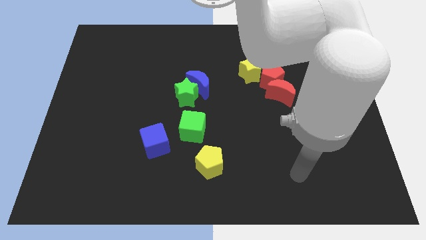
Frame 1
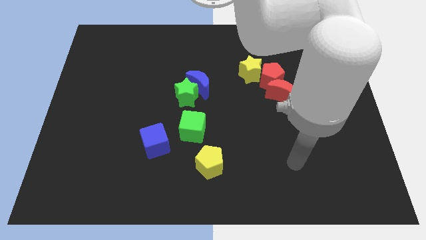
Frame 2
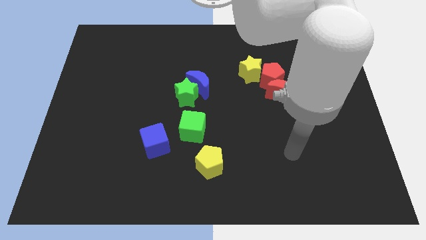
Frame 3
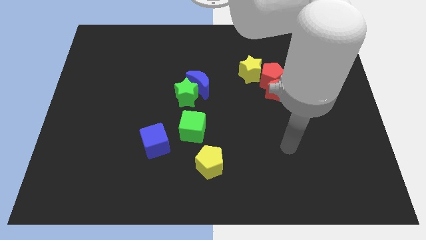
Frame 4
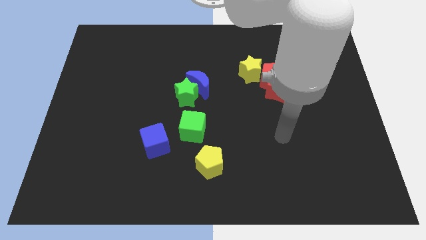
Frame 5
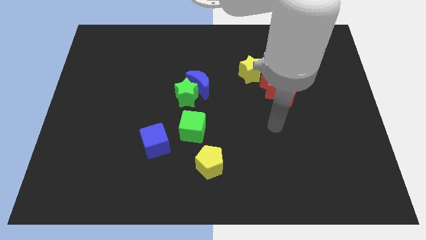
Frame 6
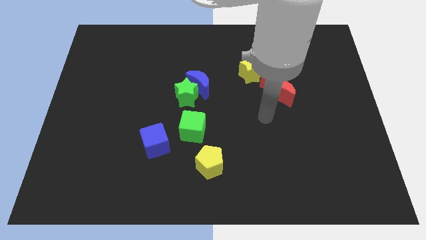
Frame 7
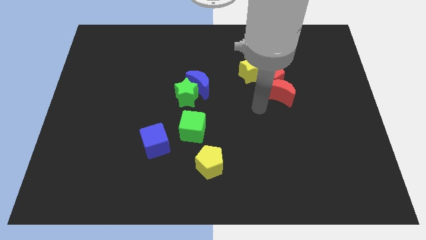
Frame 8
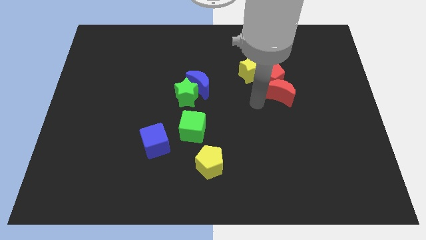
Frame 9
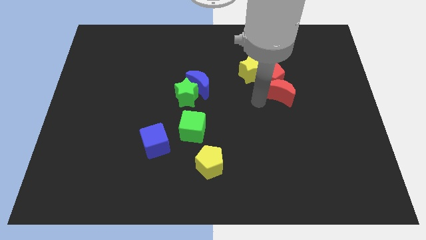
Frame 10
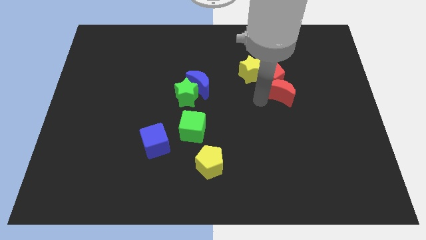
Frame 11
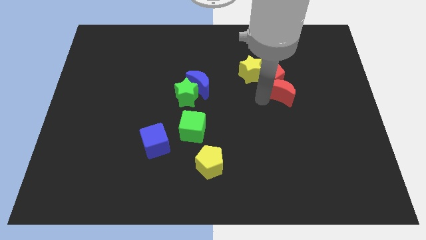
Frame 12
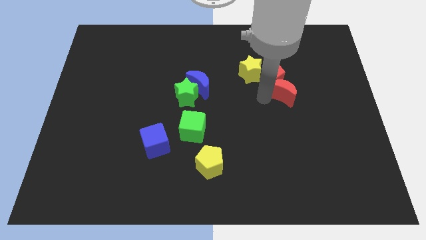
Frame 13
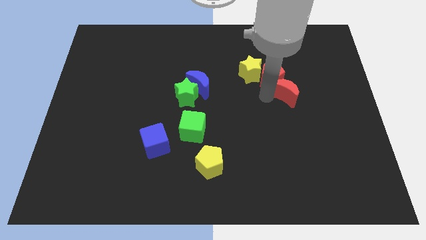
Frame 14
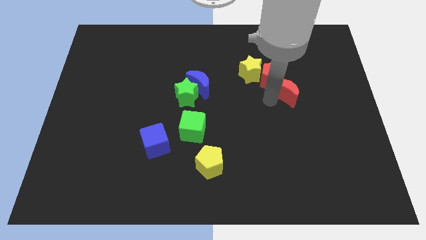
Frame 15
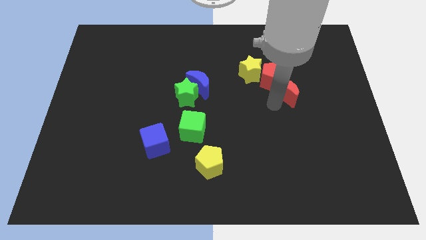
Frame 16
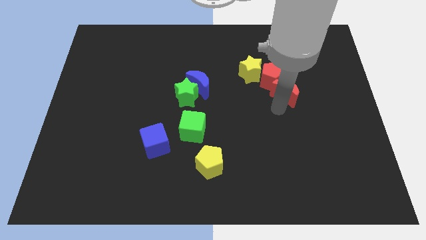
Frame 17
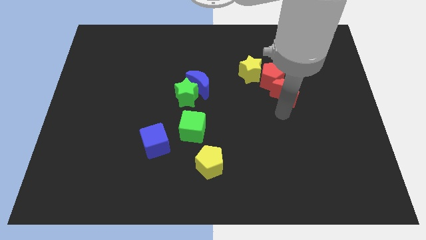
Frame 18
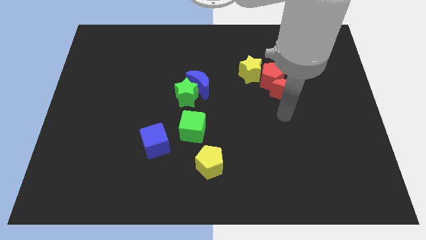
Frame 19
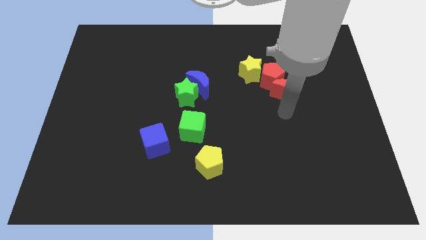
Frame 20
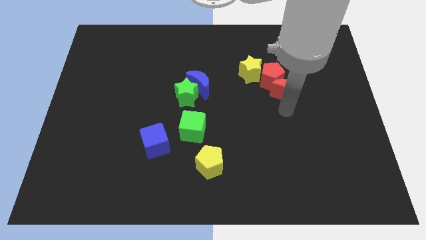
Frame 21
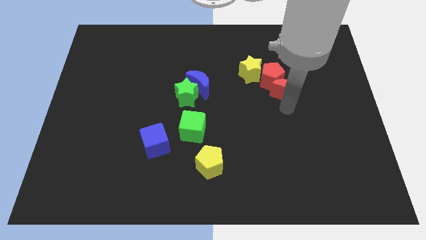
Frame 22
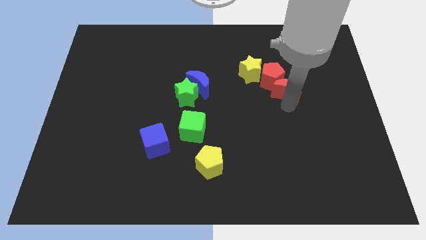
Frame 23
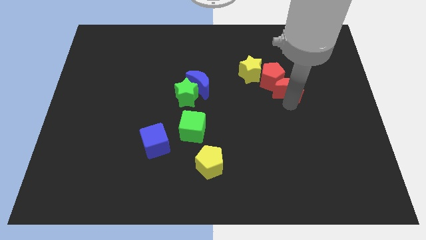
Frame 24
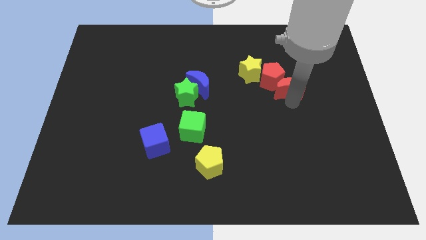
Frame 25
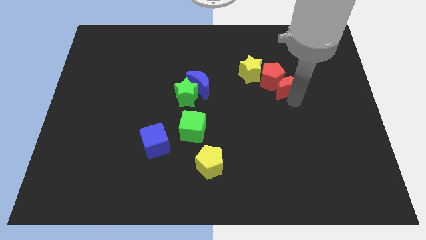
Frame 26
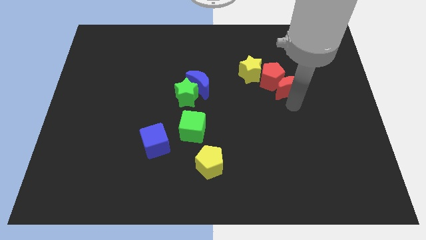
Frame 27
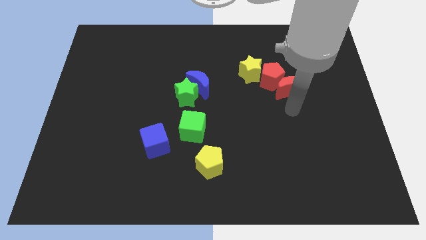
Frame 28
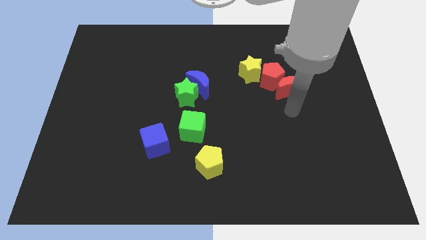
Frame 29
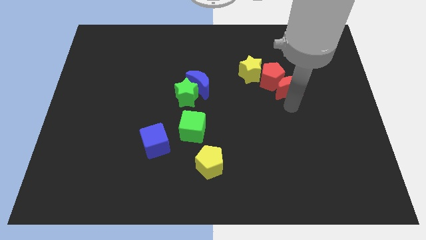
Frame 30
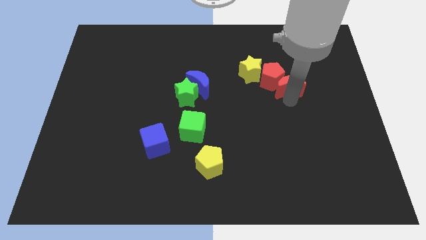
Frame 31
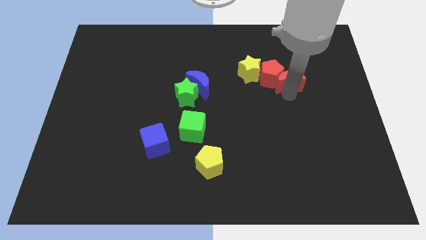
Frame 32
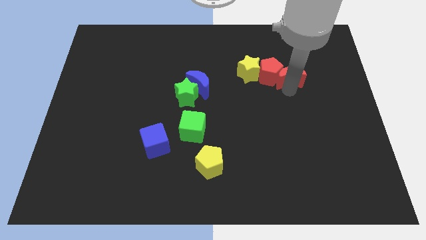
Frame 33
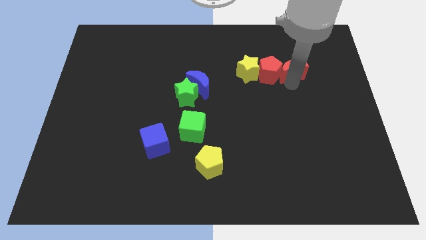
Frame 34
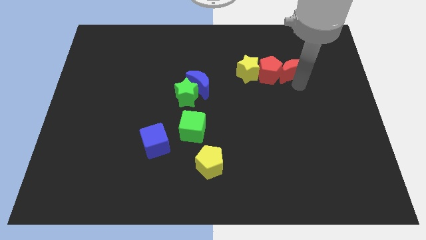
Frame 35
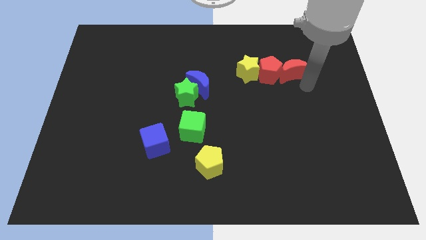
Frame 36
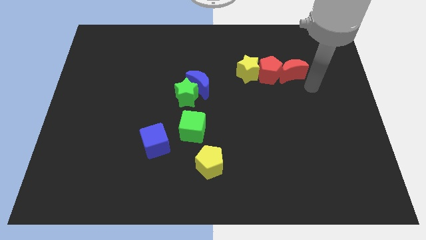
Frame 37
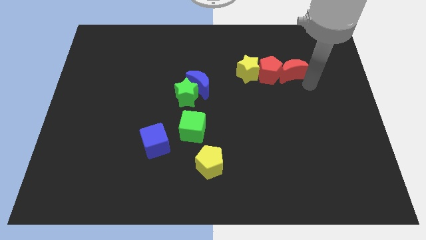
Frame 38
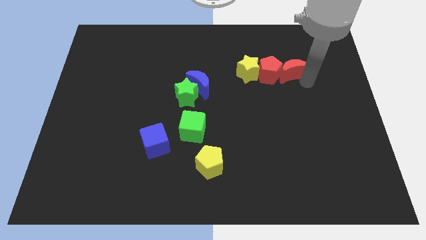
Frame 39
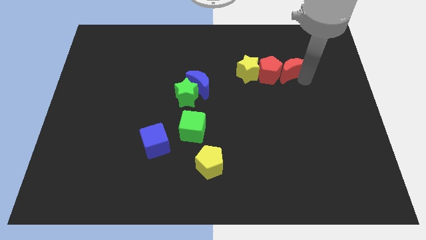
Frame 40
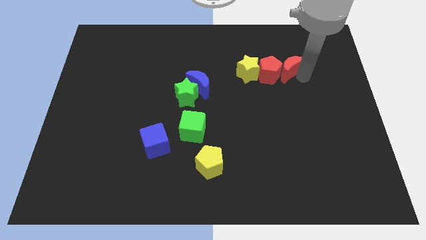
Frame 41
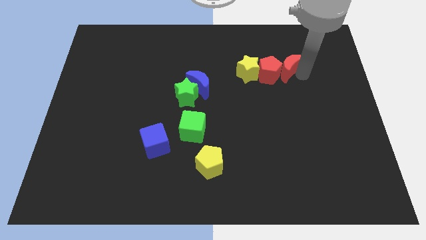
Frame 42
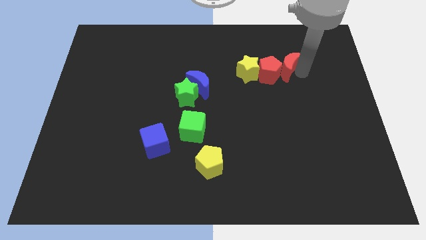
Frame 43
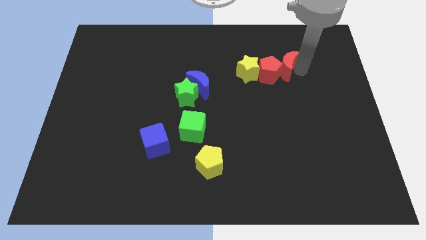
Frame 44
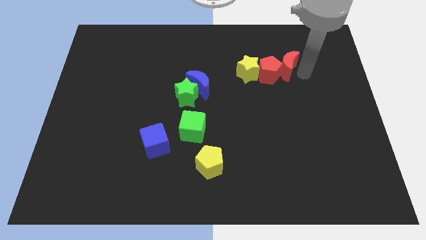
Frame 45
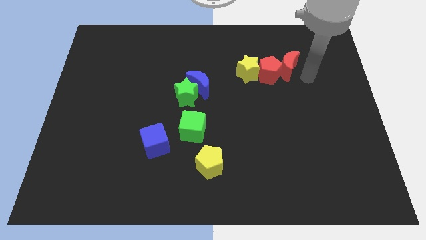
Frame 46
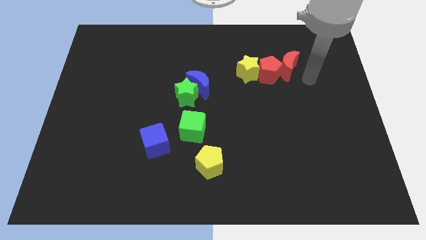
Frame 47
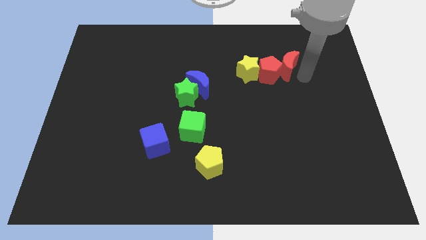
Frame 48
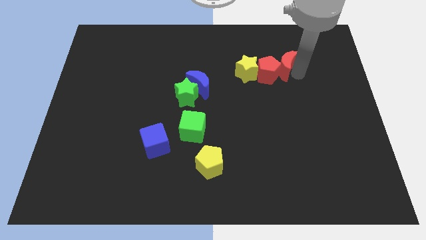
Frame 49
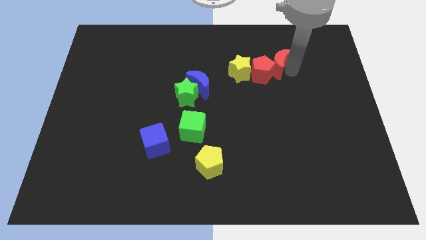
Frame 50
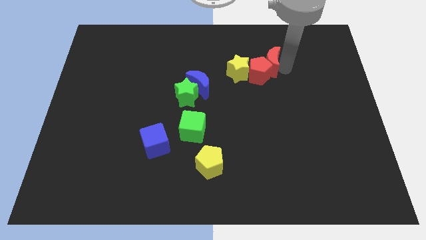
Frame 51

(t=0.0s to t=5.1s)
put the red moon to the top right side of the yellow star

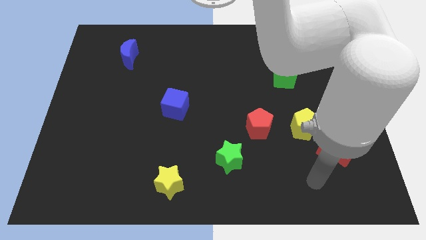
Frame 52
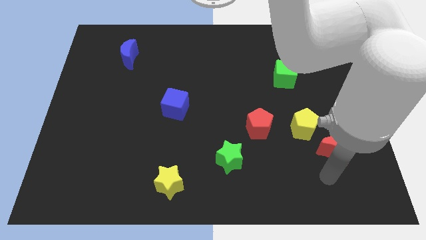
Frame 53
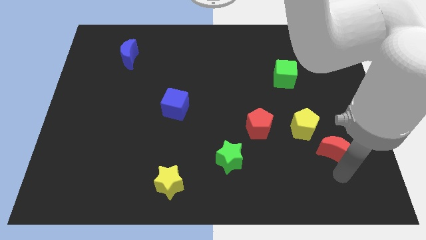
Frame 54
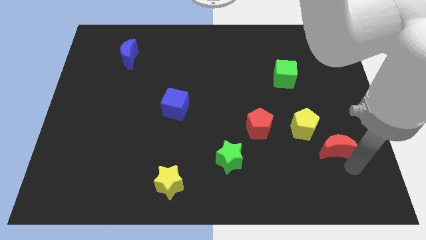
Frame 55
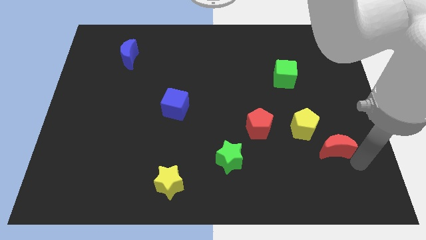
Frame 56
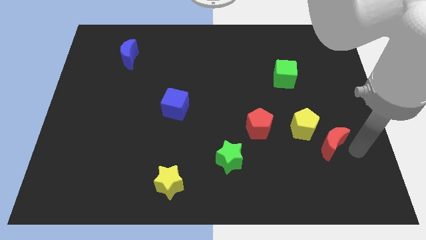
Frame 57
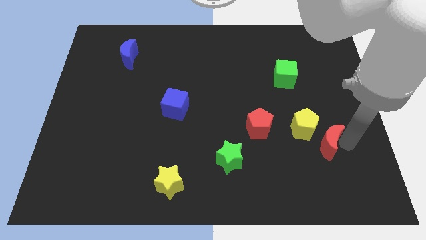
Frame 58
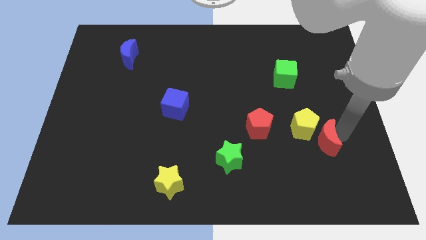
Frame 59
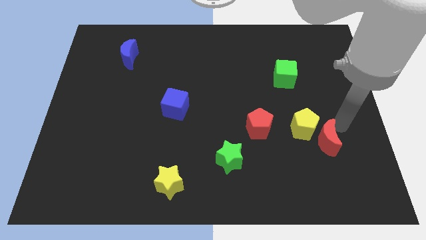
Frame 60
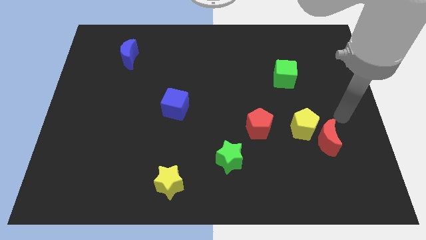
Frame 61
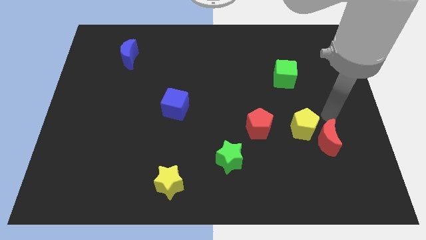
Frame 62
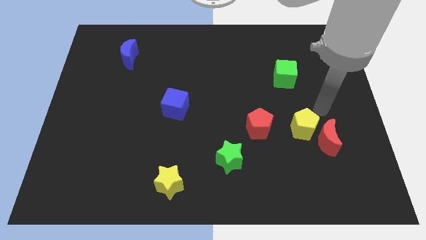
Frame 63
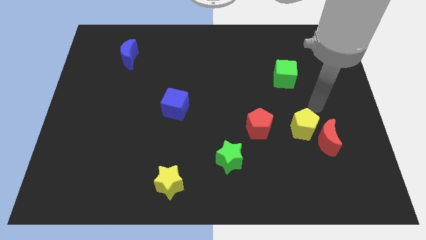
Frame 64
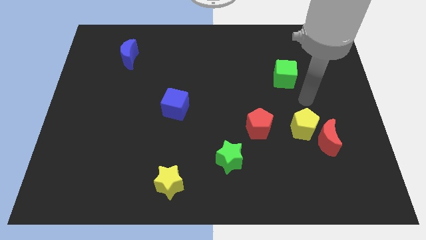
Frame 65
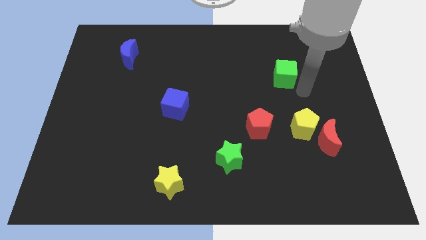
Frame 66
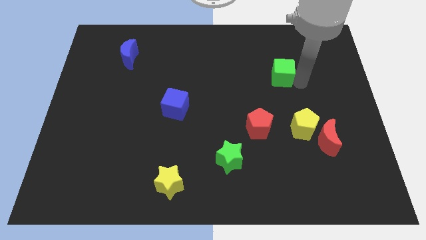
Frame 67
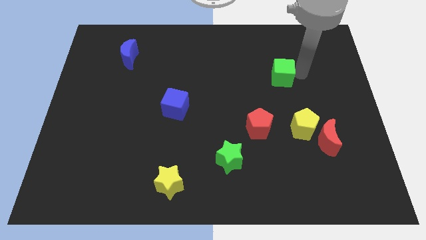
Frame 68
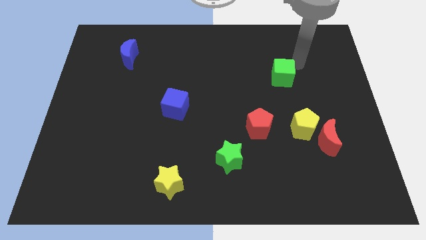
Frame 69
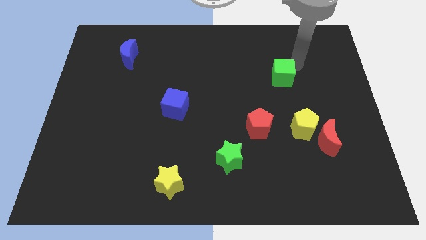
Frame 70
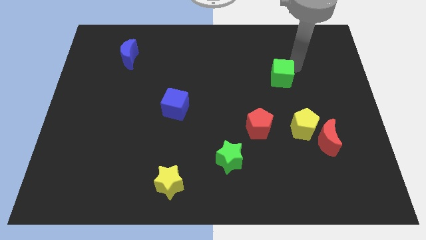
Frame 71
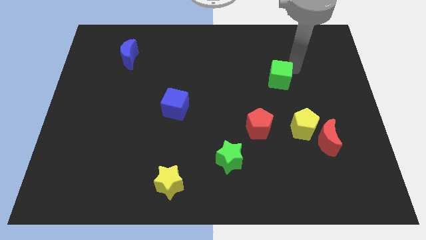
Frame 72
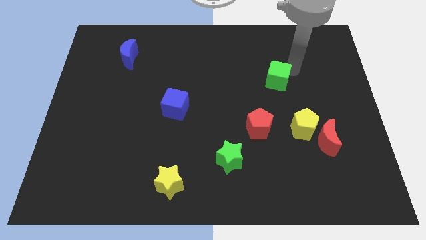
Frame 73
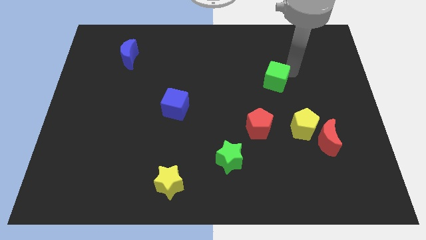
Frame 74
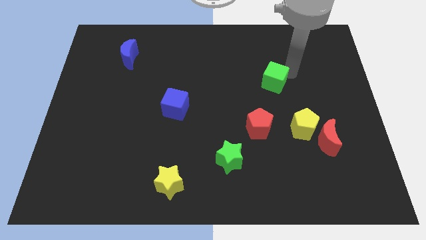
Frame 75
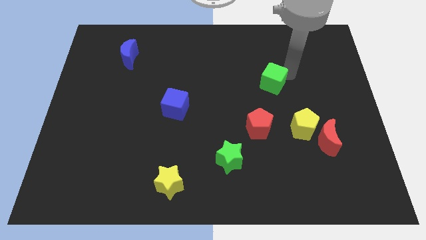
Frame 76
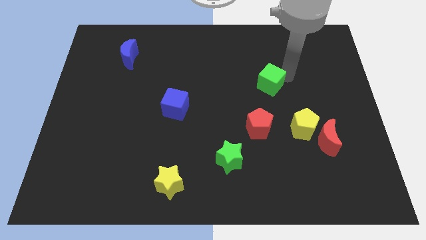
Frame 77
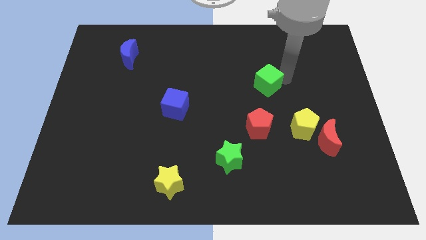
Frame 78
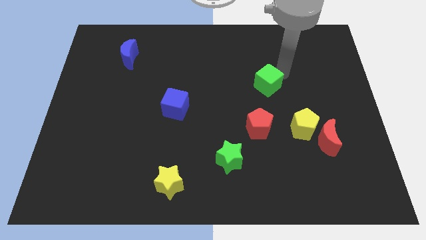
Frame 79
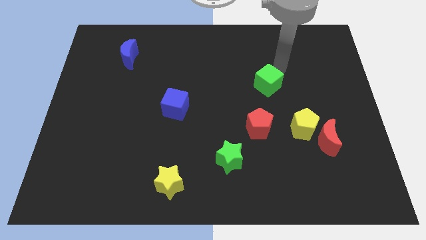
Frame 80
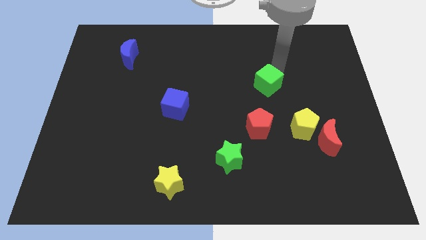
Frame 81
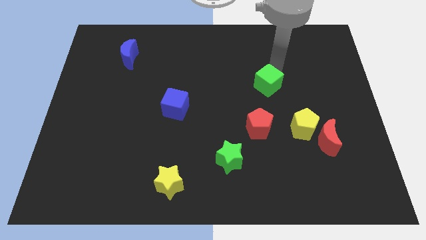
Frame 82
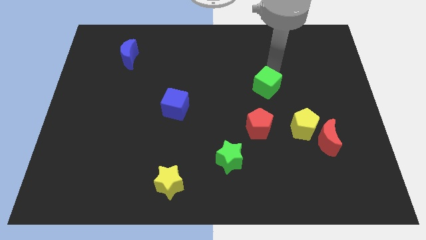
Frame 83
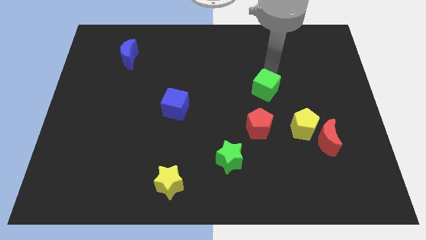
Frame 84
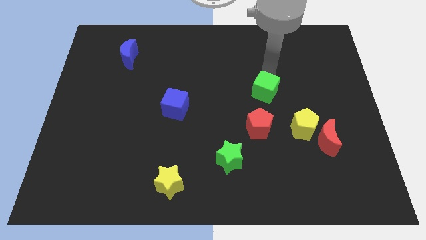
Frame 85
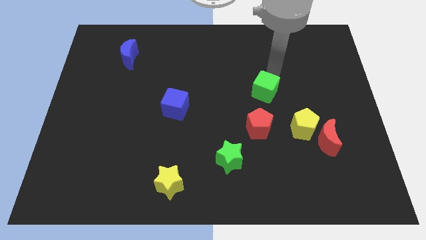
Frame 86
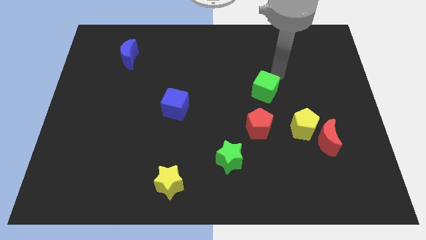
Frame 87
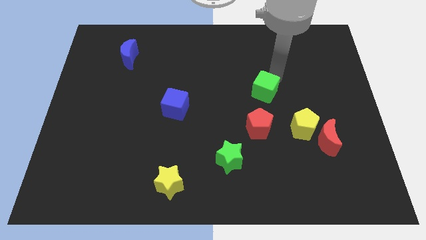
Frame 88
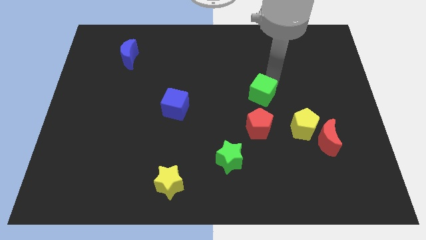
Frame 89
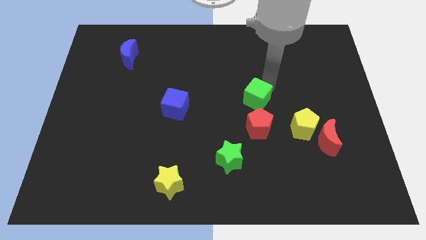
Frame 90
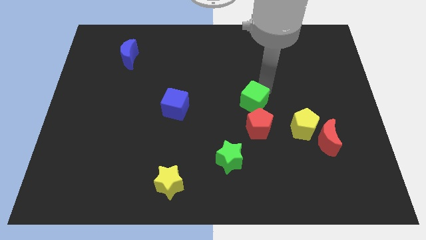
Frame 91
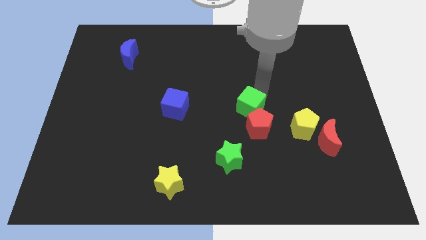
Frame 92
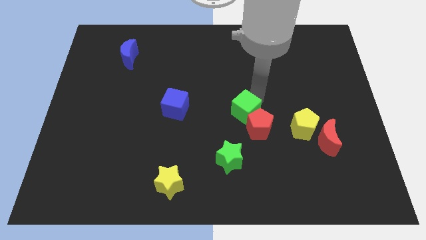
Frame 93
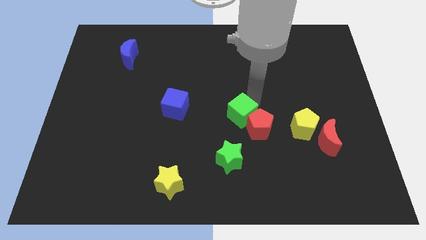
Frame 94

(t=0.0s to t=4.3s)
push the green cube just left of the yellow pentagon
